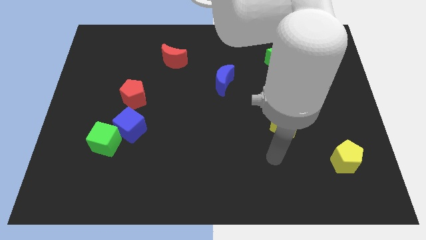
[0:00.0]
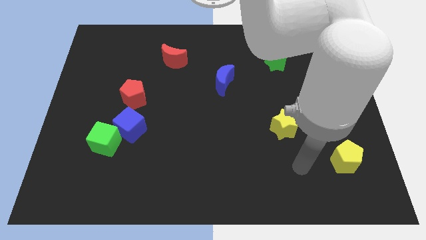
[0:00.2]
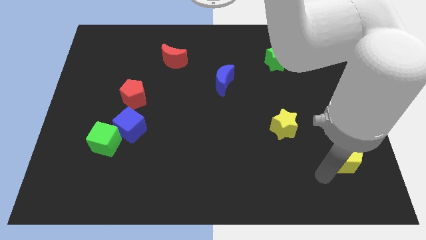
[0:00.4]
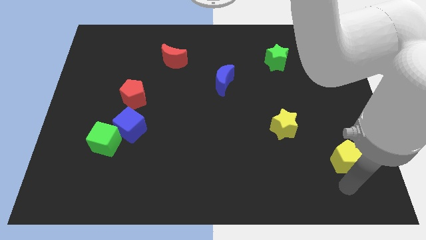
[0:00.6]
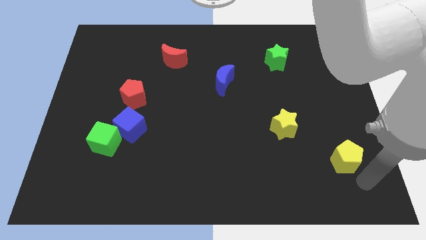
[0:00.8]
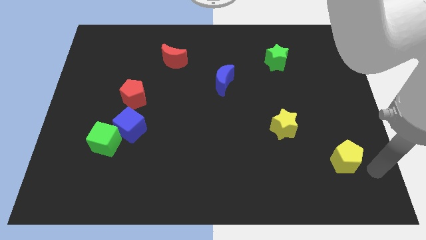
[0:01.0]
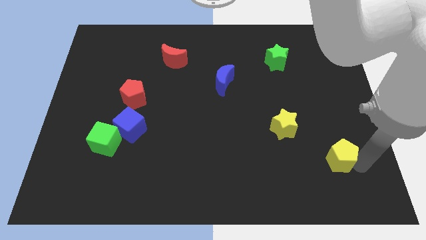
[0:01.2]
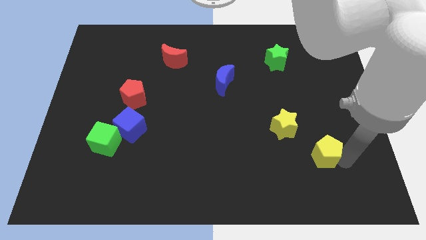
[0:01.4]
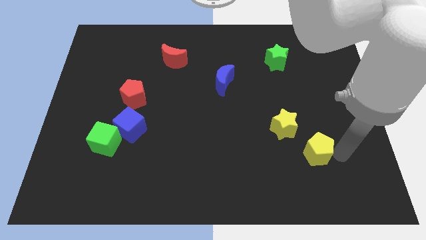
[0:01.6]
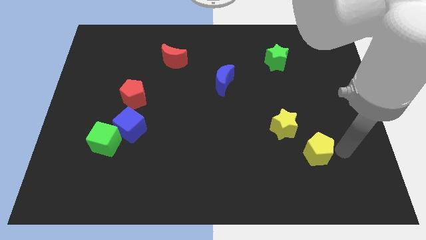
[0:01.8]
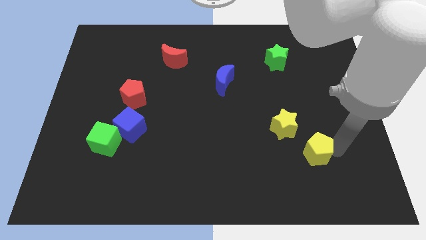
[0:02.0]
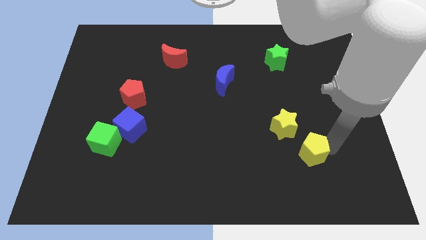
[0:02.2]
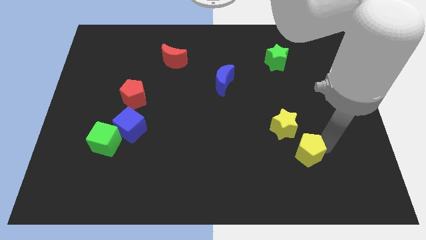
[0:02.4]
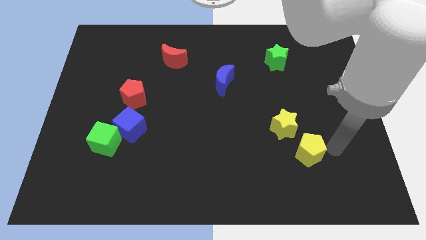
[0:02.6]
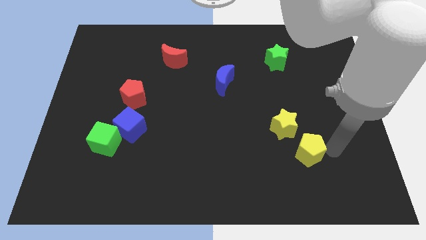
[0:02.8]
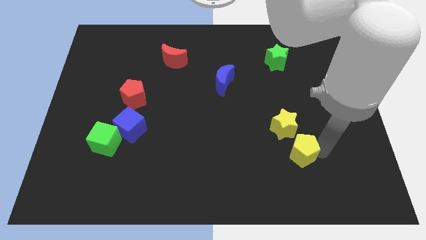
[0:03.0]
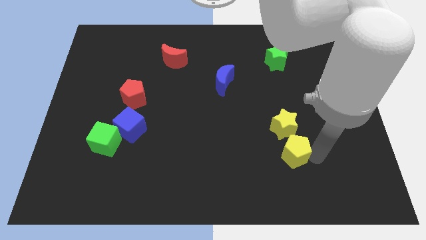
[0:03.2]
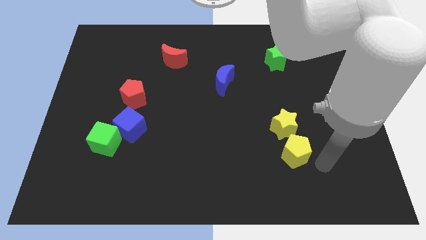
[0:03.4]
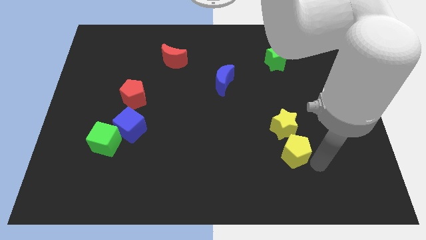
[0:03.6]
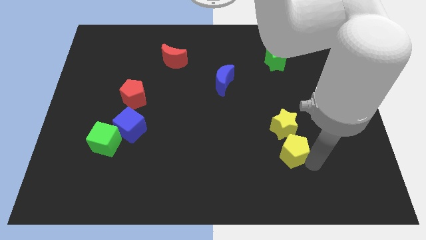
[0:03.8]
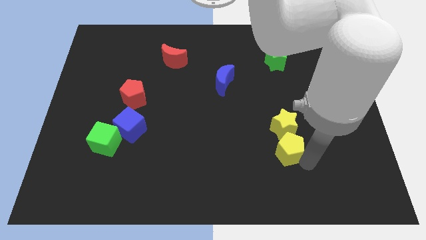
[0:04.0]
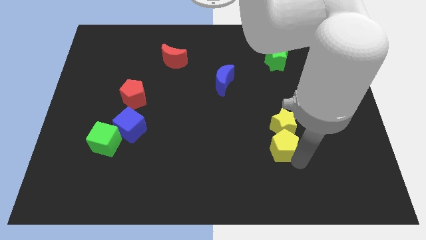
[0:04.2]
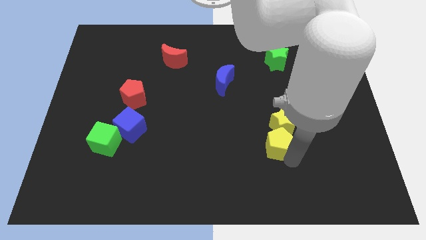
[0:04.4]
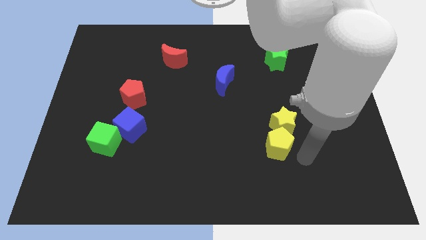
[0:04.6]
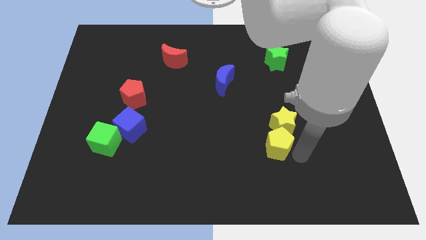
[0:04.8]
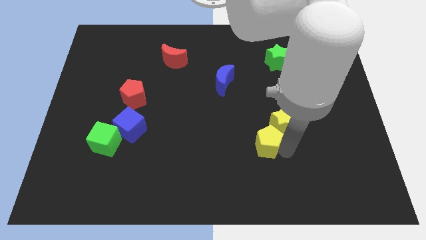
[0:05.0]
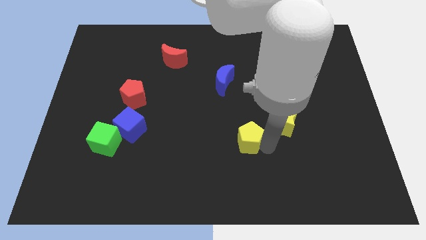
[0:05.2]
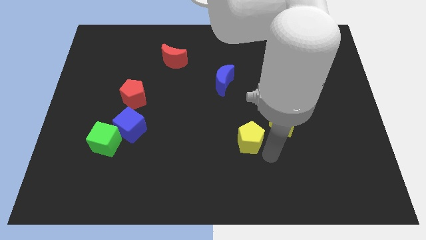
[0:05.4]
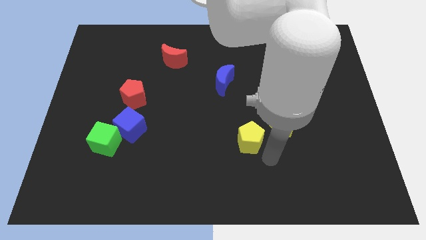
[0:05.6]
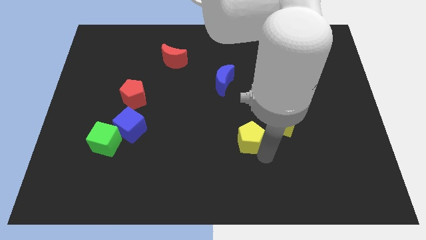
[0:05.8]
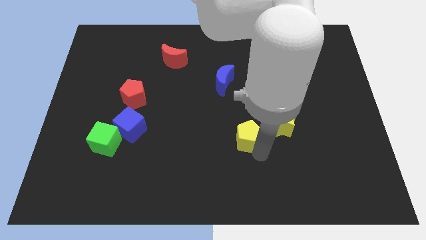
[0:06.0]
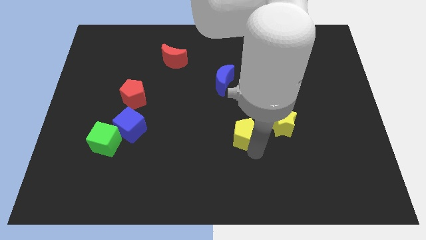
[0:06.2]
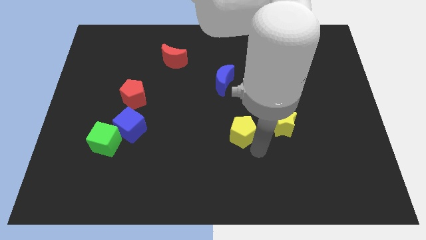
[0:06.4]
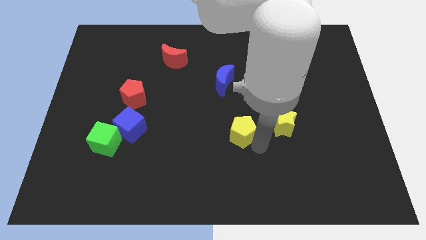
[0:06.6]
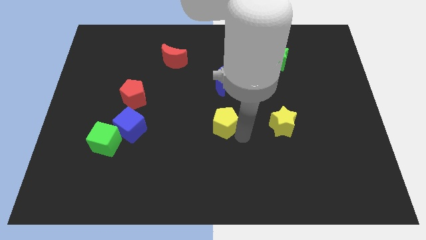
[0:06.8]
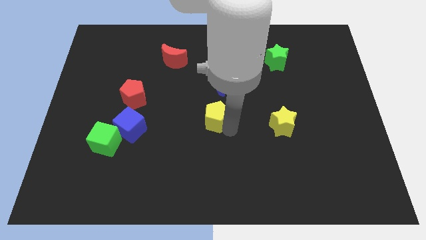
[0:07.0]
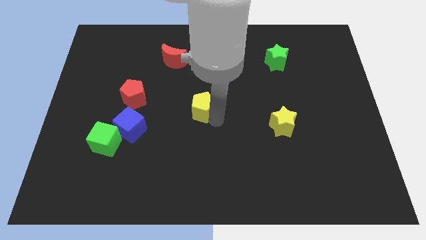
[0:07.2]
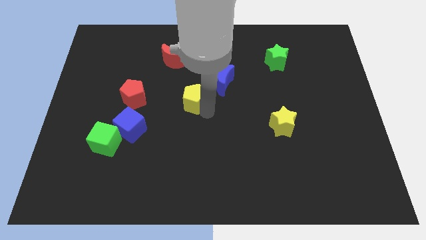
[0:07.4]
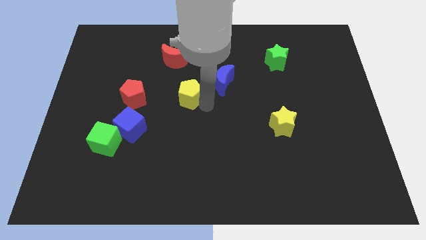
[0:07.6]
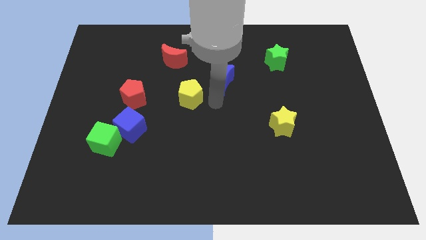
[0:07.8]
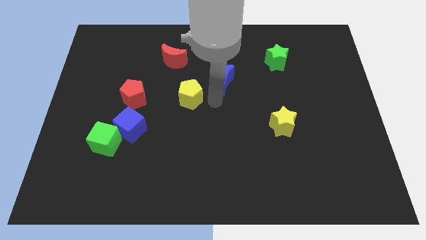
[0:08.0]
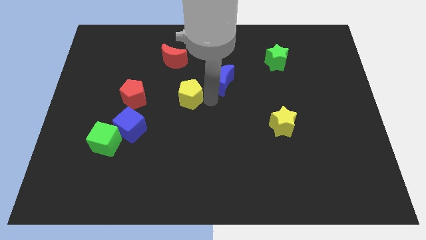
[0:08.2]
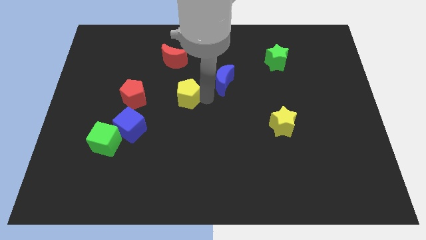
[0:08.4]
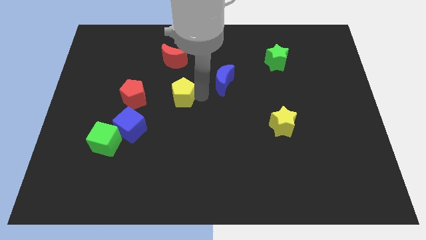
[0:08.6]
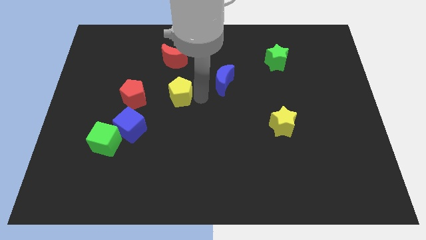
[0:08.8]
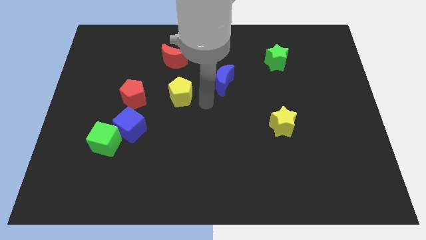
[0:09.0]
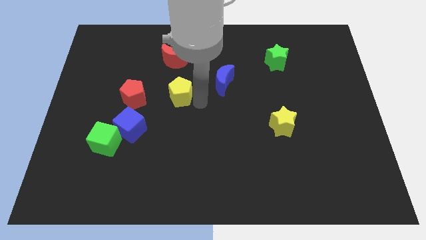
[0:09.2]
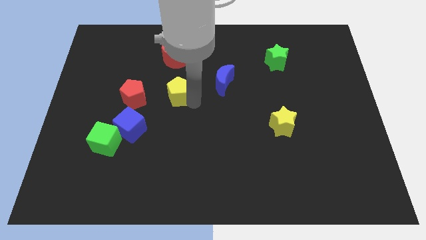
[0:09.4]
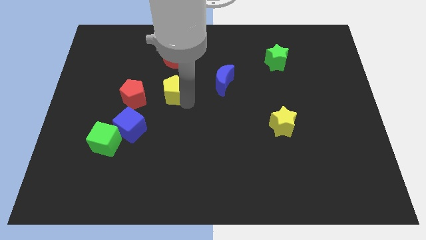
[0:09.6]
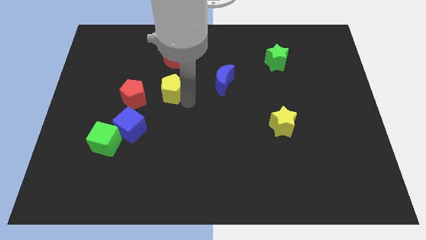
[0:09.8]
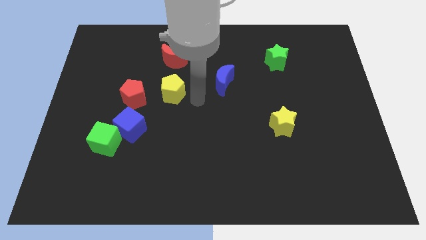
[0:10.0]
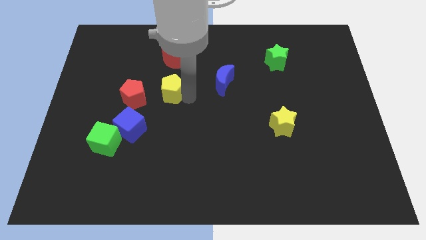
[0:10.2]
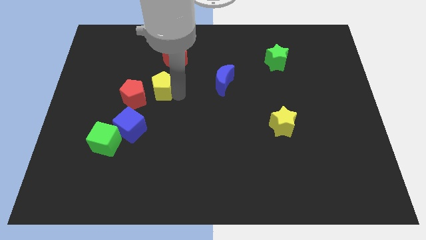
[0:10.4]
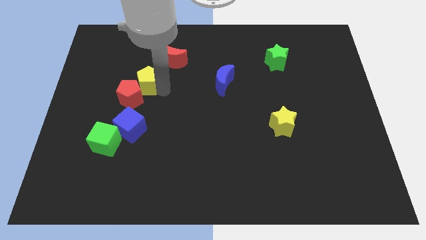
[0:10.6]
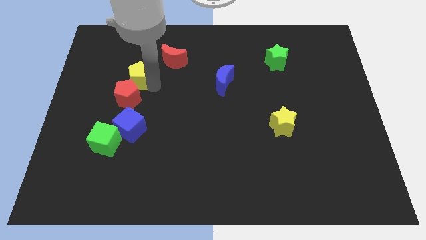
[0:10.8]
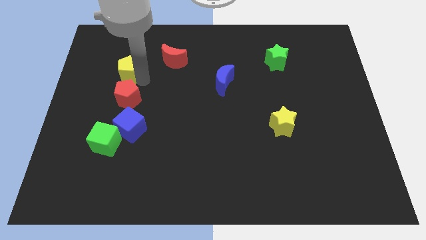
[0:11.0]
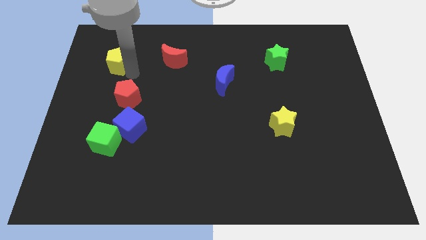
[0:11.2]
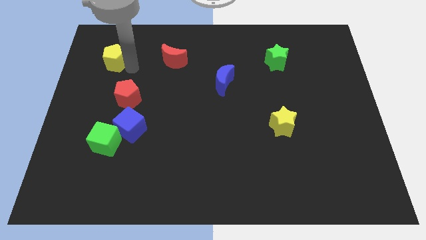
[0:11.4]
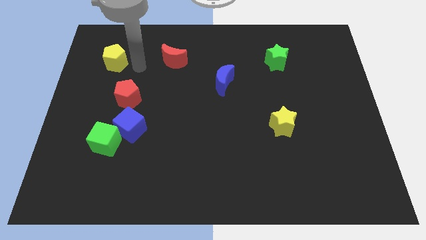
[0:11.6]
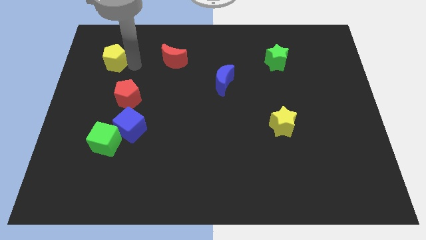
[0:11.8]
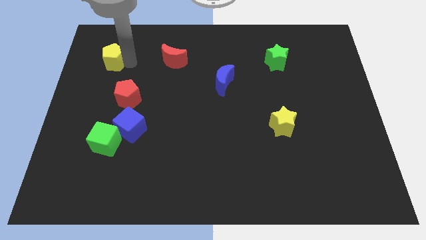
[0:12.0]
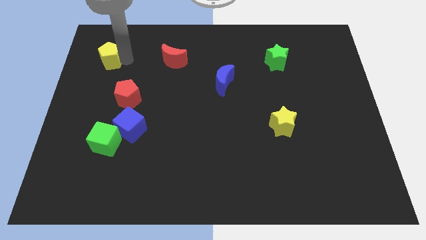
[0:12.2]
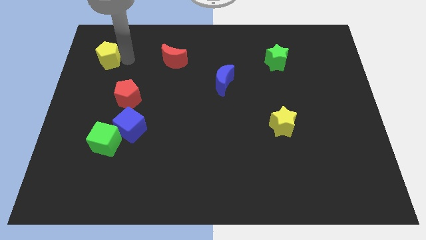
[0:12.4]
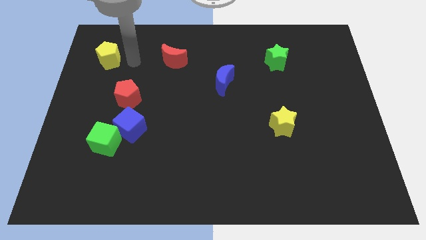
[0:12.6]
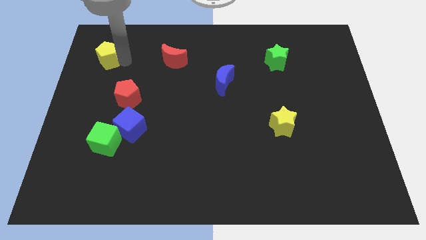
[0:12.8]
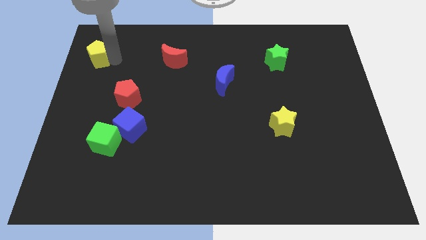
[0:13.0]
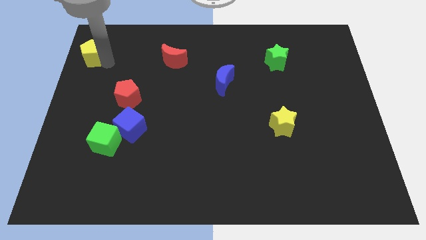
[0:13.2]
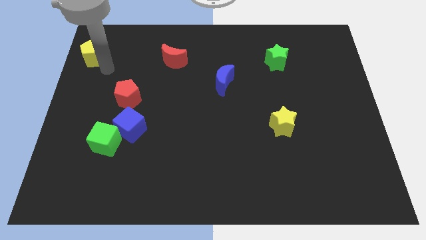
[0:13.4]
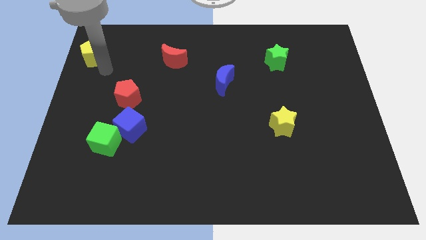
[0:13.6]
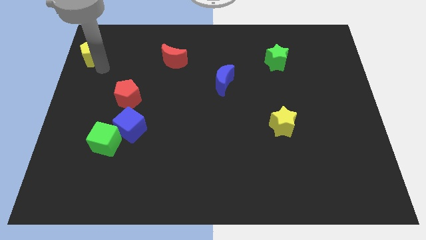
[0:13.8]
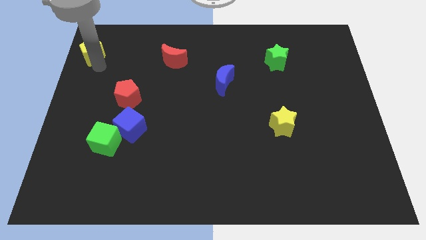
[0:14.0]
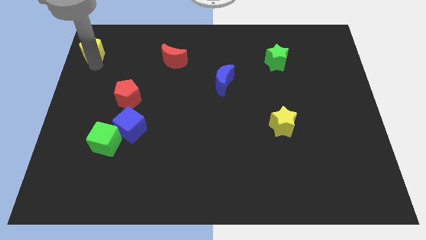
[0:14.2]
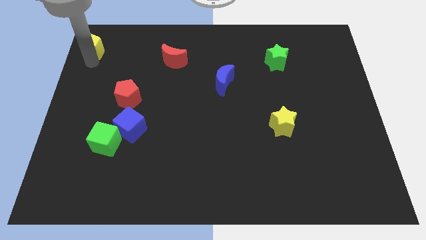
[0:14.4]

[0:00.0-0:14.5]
slide the yellow pentagon to the top left corner

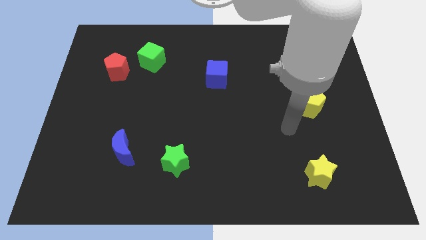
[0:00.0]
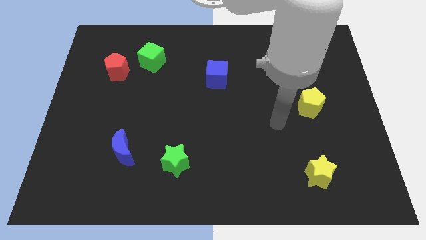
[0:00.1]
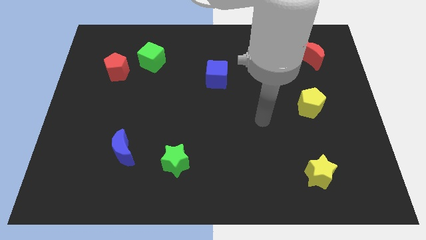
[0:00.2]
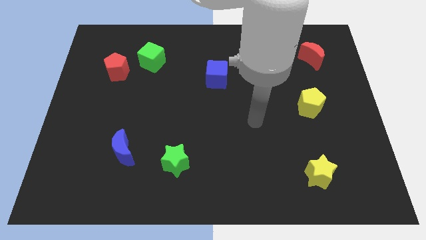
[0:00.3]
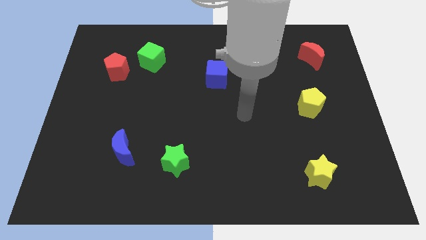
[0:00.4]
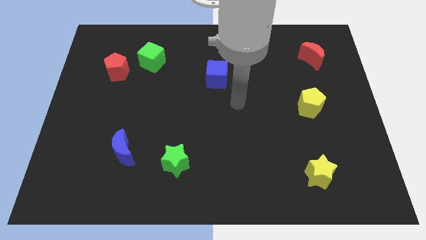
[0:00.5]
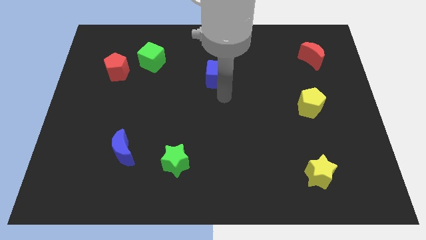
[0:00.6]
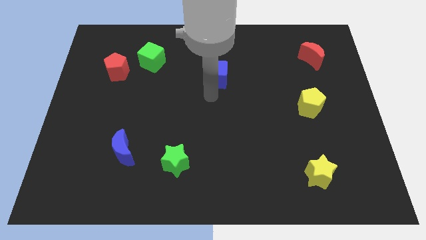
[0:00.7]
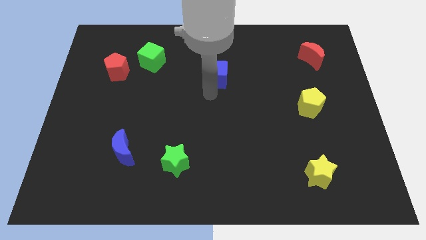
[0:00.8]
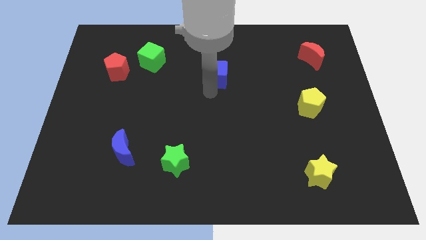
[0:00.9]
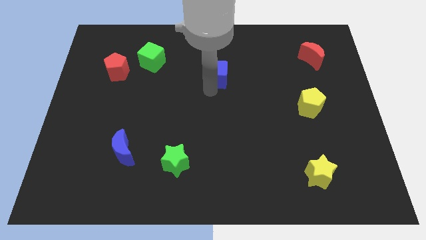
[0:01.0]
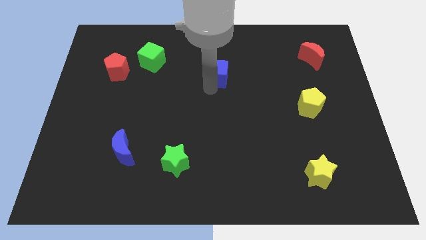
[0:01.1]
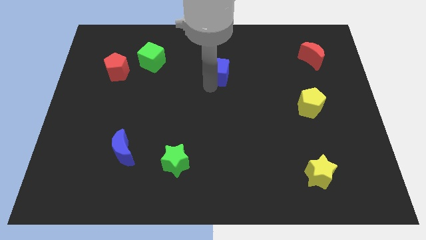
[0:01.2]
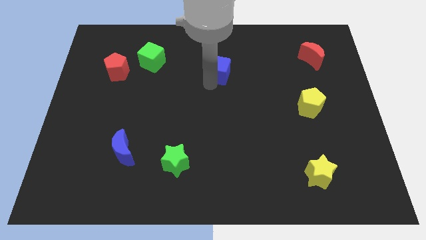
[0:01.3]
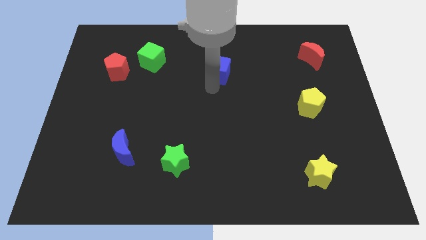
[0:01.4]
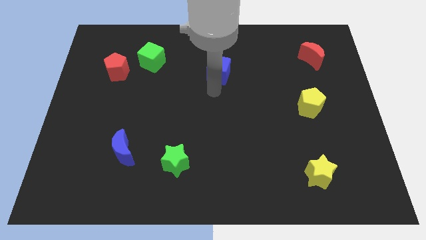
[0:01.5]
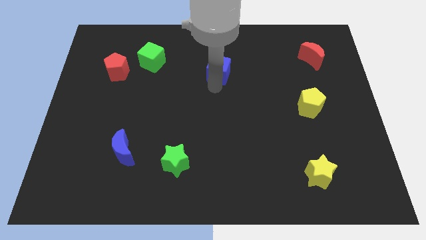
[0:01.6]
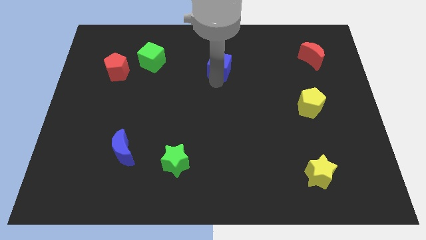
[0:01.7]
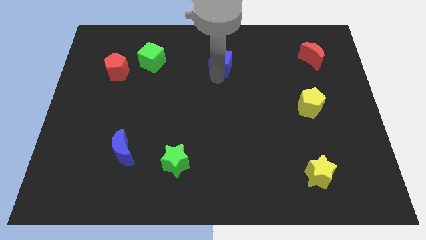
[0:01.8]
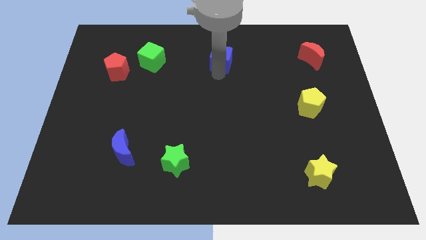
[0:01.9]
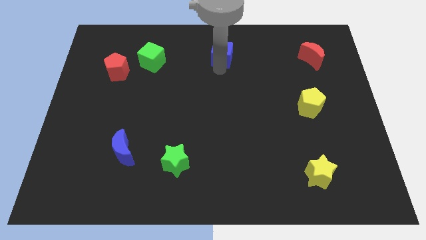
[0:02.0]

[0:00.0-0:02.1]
move the blue cube to the towards your base
